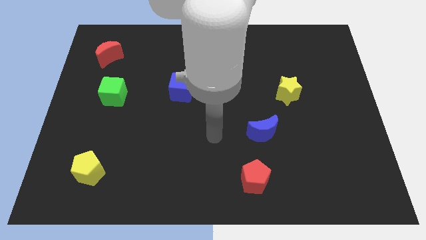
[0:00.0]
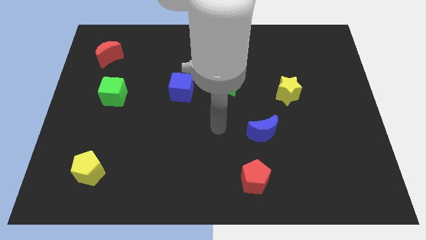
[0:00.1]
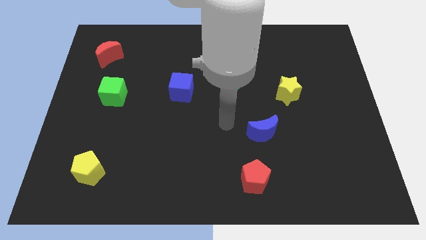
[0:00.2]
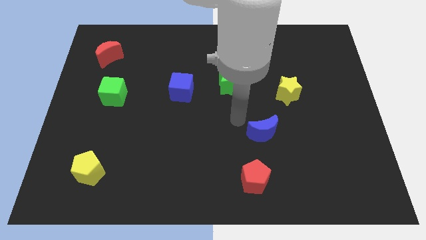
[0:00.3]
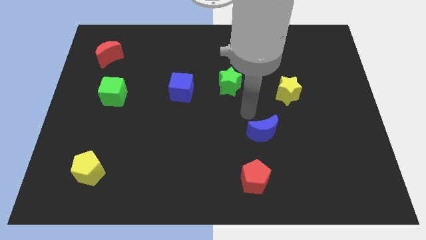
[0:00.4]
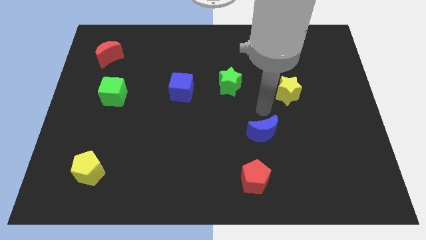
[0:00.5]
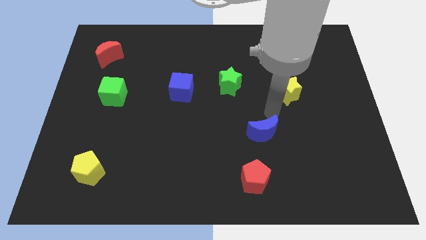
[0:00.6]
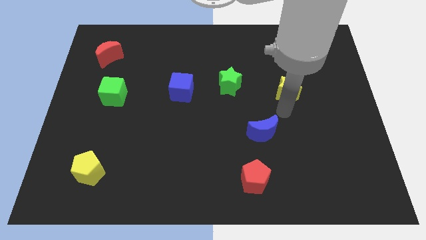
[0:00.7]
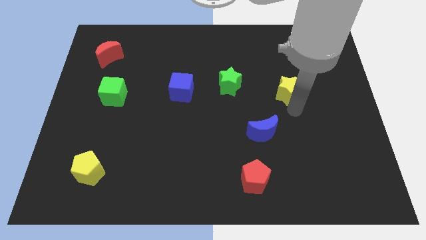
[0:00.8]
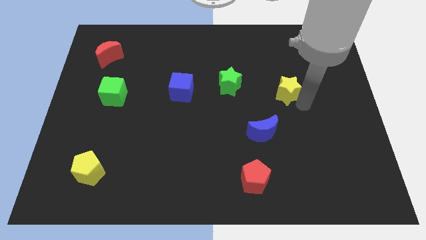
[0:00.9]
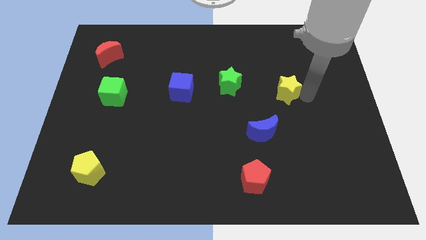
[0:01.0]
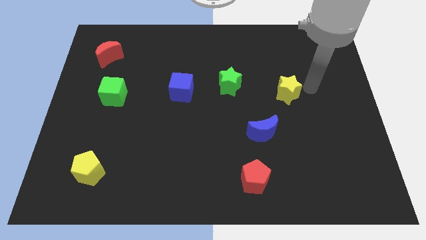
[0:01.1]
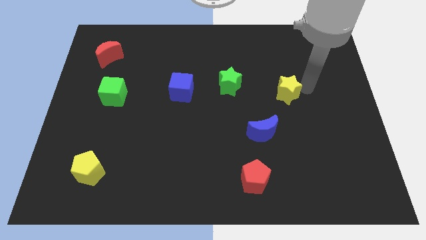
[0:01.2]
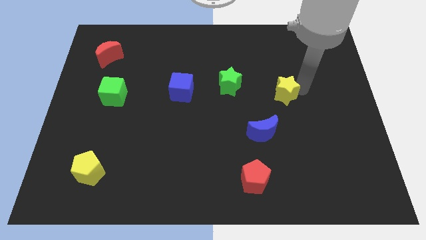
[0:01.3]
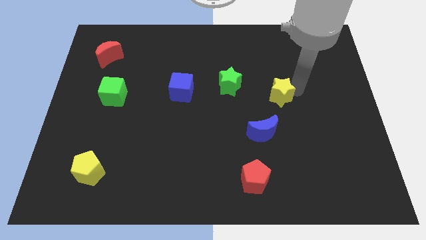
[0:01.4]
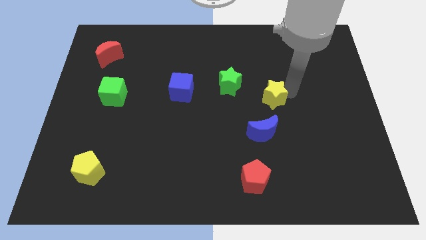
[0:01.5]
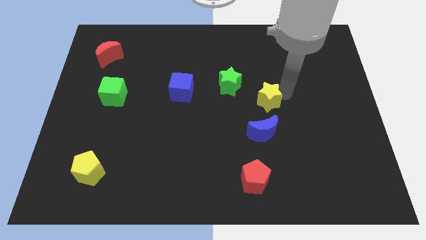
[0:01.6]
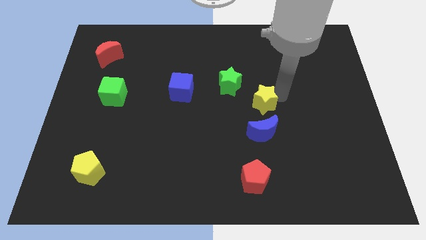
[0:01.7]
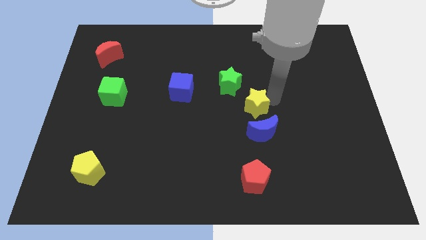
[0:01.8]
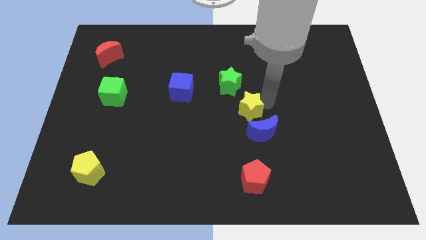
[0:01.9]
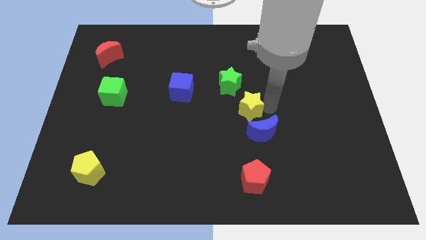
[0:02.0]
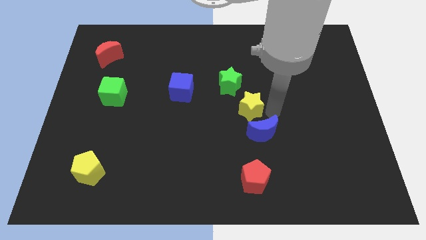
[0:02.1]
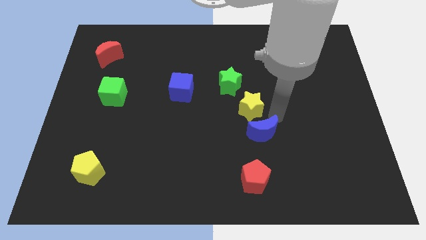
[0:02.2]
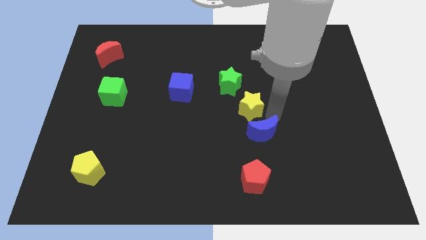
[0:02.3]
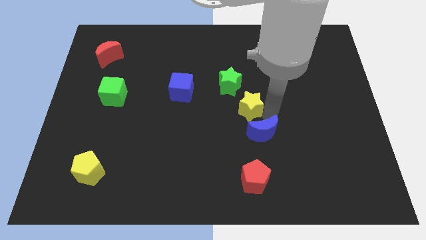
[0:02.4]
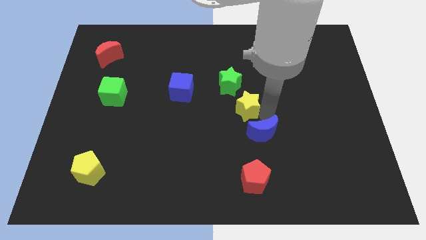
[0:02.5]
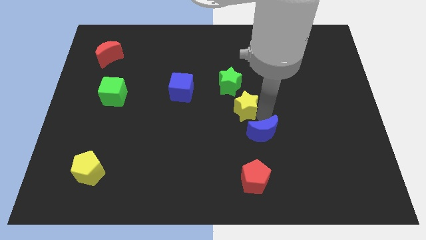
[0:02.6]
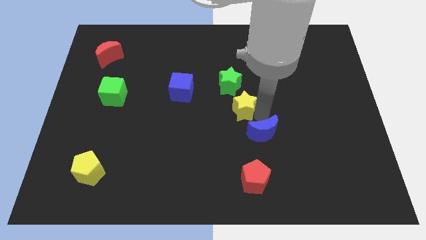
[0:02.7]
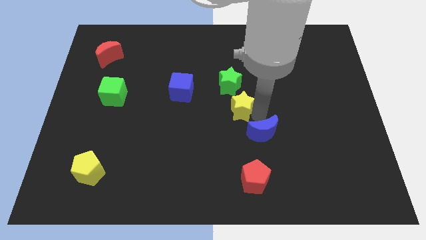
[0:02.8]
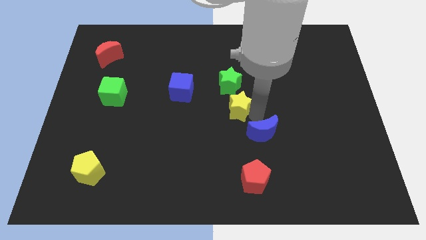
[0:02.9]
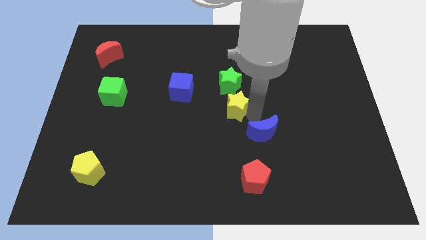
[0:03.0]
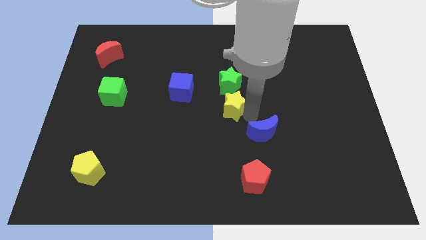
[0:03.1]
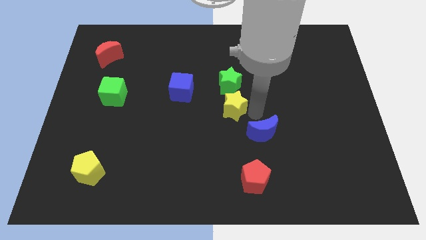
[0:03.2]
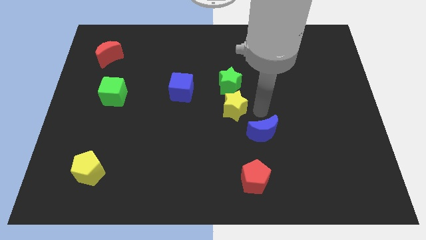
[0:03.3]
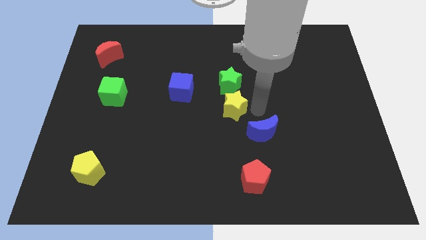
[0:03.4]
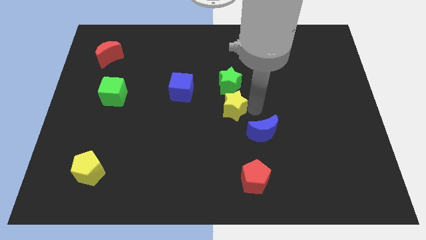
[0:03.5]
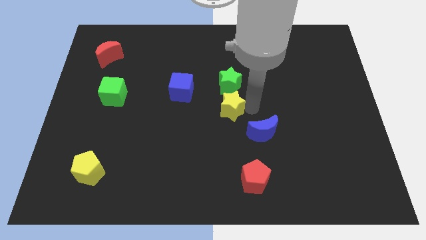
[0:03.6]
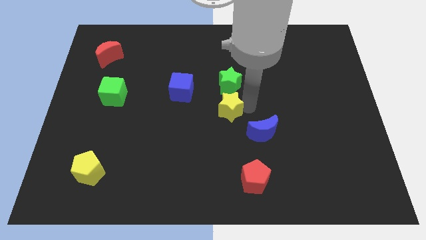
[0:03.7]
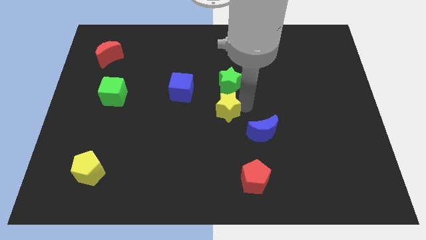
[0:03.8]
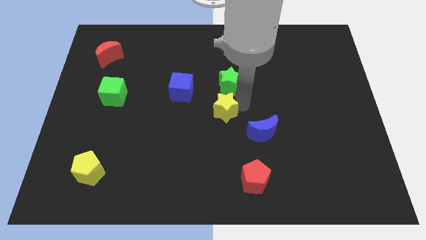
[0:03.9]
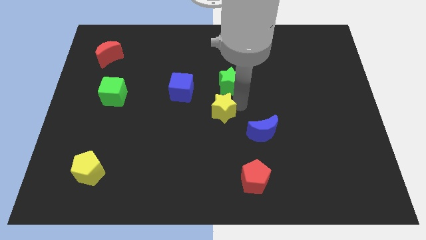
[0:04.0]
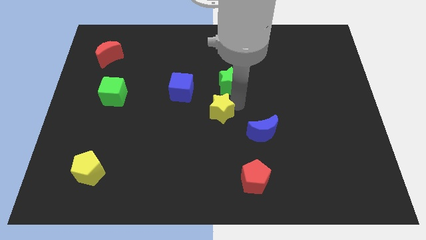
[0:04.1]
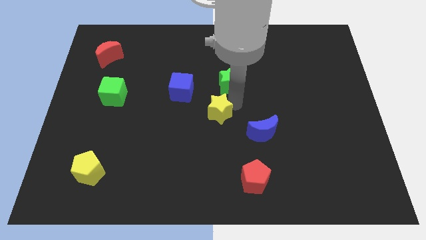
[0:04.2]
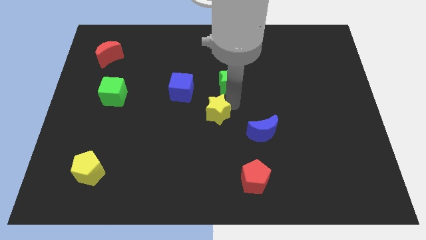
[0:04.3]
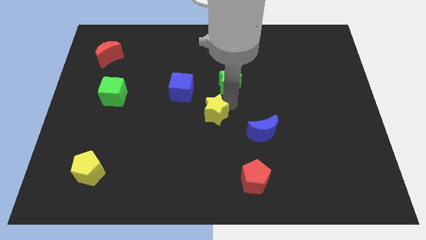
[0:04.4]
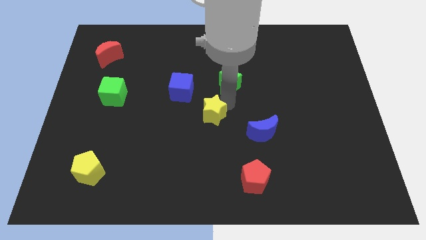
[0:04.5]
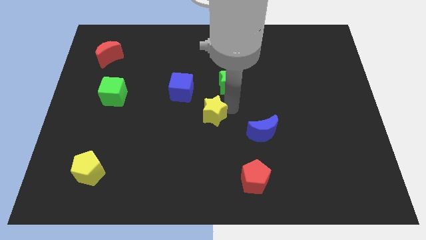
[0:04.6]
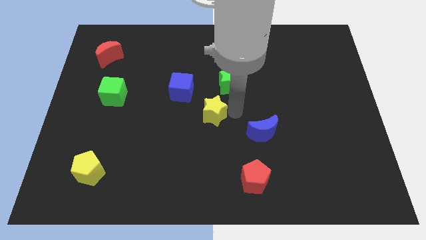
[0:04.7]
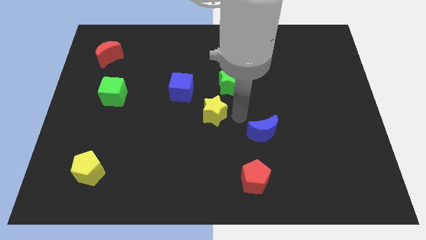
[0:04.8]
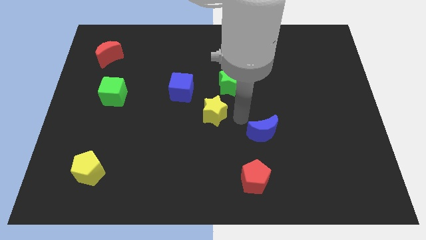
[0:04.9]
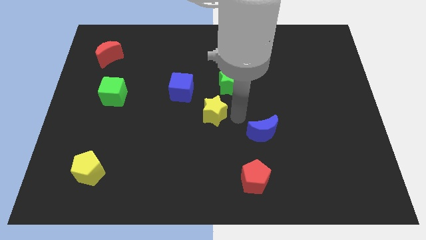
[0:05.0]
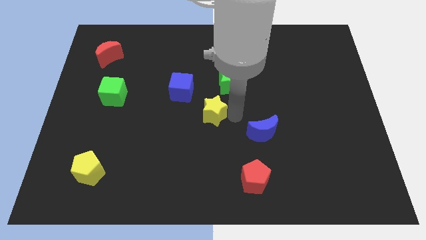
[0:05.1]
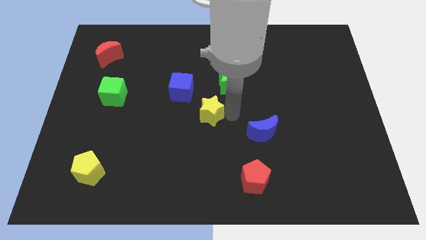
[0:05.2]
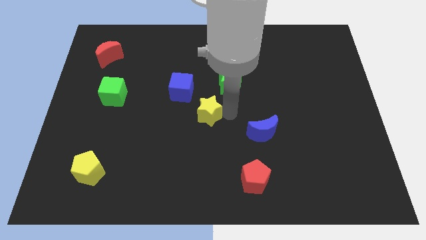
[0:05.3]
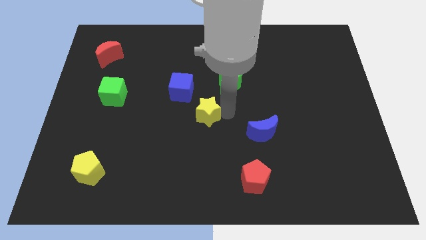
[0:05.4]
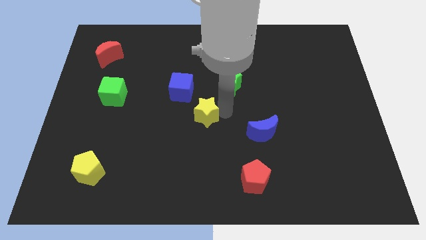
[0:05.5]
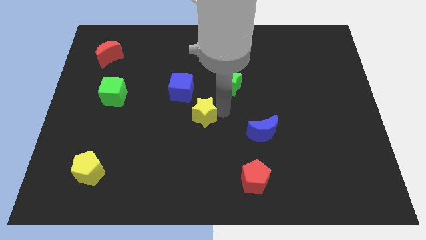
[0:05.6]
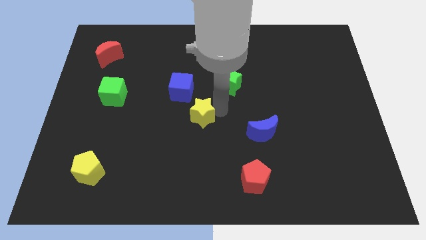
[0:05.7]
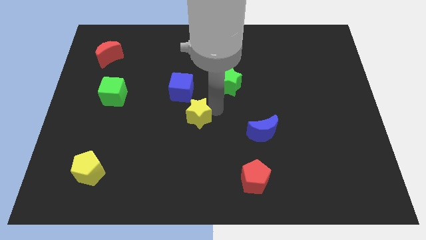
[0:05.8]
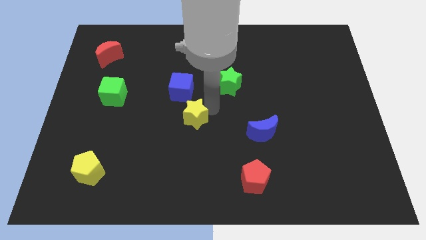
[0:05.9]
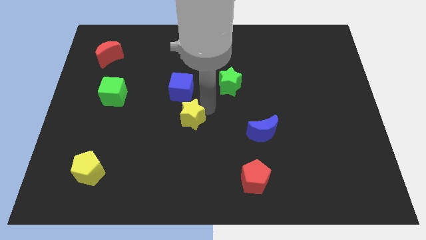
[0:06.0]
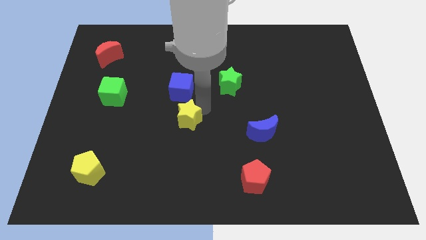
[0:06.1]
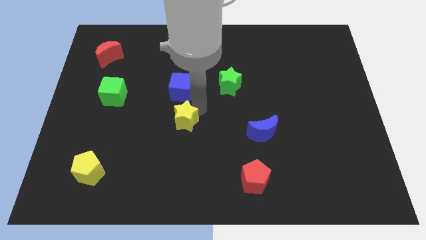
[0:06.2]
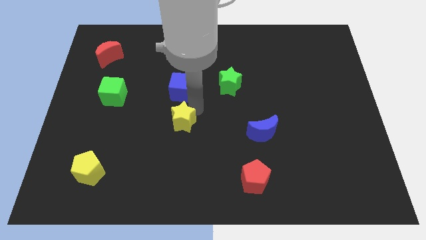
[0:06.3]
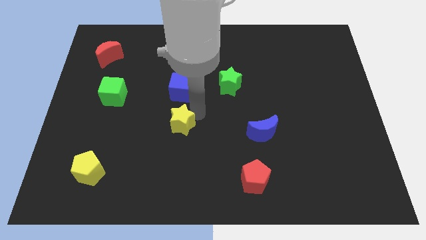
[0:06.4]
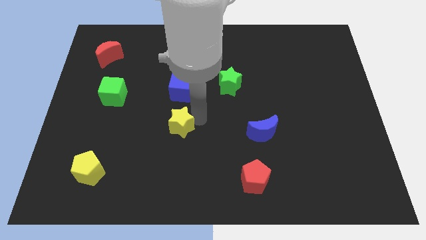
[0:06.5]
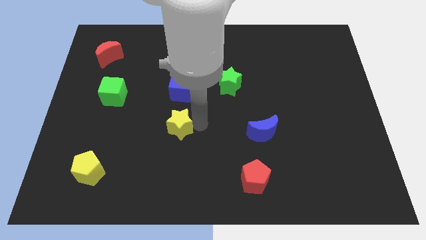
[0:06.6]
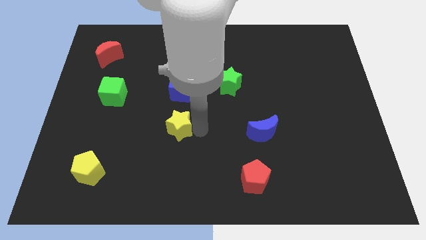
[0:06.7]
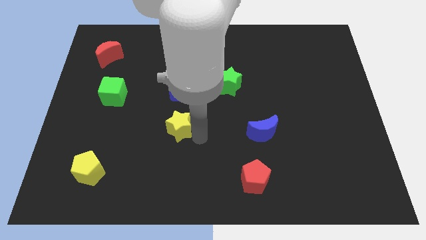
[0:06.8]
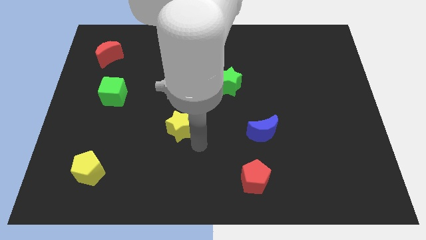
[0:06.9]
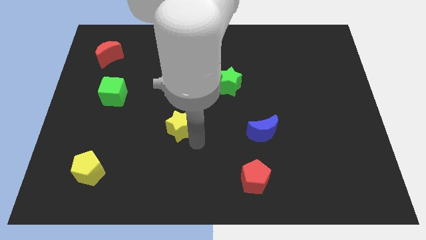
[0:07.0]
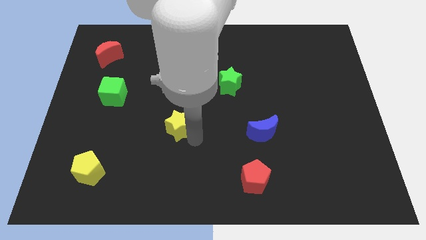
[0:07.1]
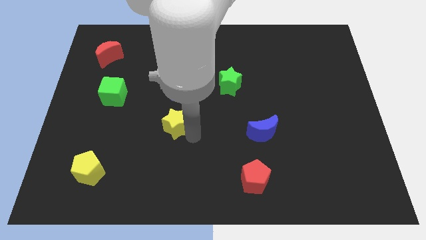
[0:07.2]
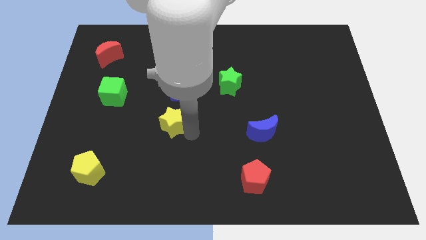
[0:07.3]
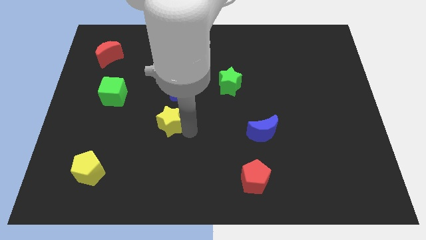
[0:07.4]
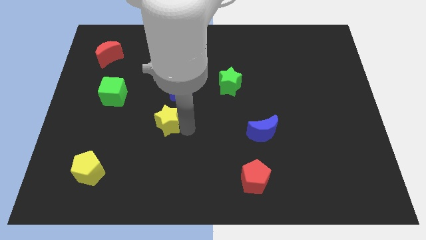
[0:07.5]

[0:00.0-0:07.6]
put the yellow star diagonally down and to the left of the blue cube
